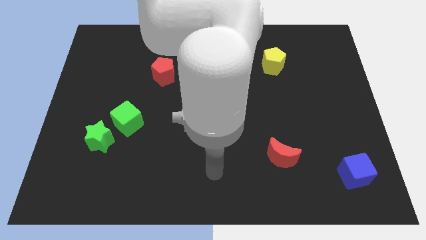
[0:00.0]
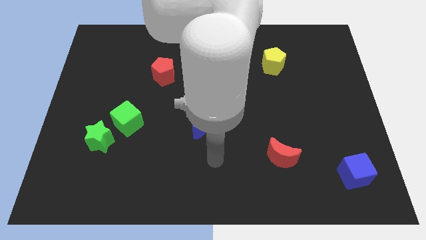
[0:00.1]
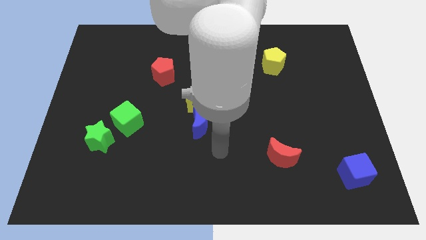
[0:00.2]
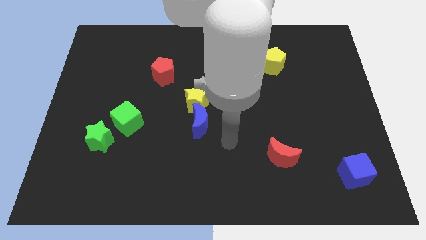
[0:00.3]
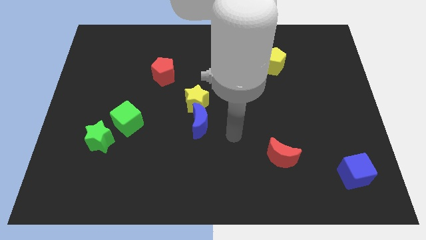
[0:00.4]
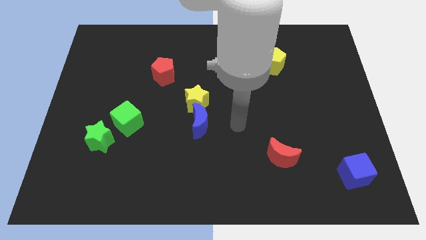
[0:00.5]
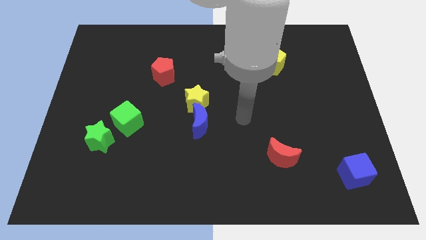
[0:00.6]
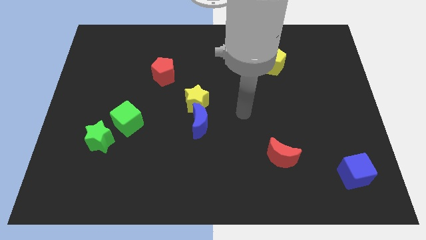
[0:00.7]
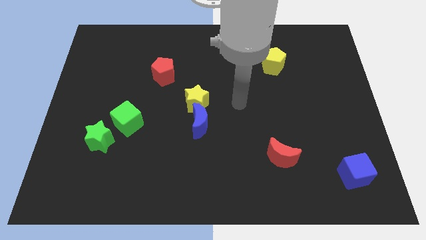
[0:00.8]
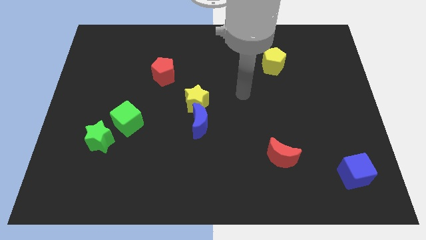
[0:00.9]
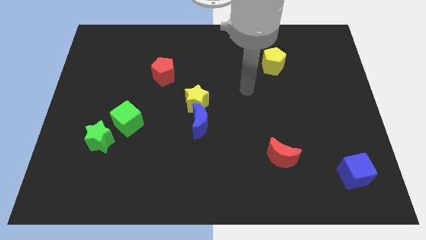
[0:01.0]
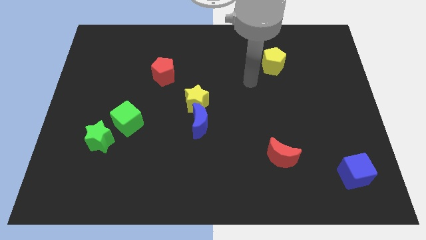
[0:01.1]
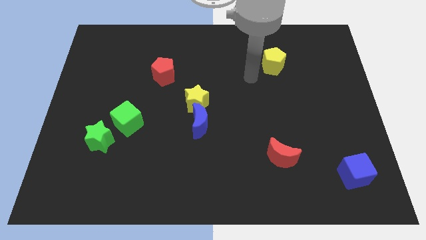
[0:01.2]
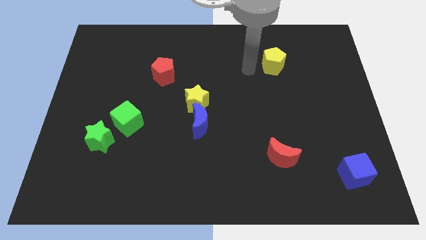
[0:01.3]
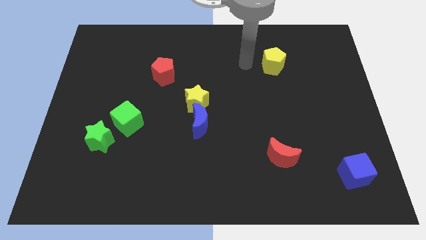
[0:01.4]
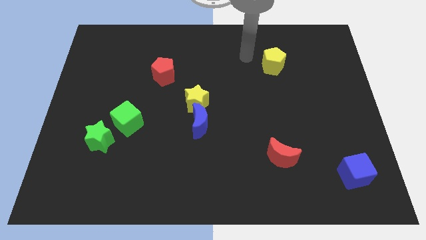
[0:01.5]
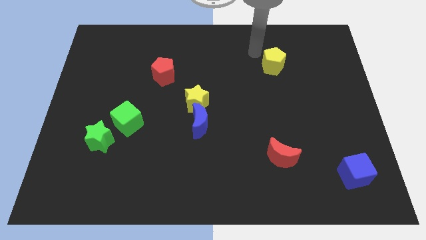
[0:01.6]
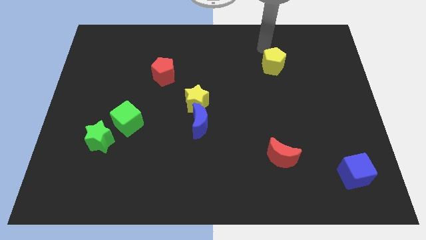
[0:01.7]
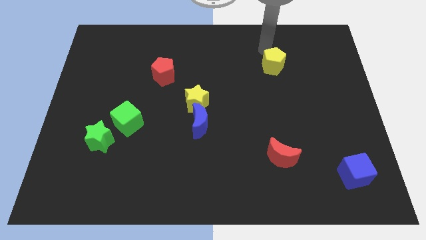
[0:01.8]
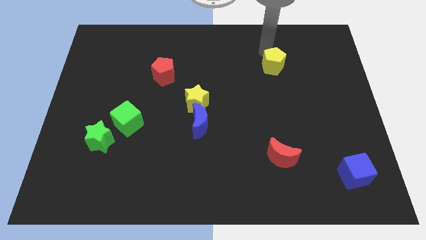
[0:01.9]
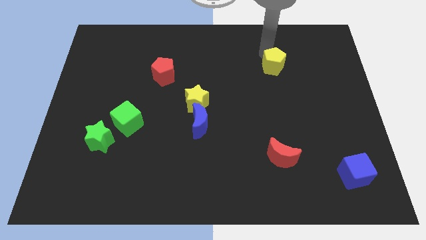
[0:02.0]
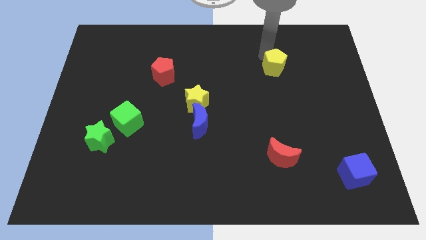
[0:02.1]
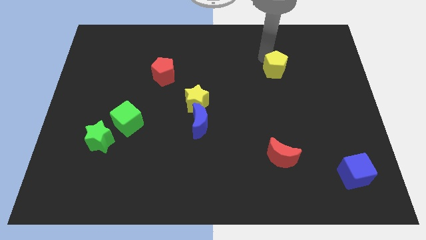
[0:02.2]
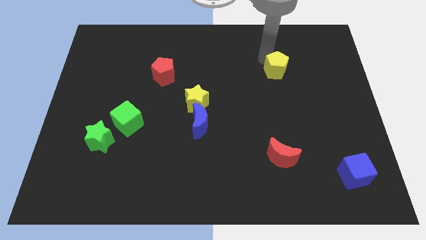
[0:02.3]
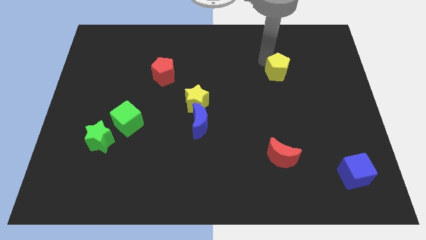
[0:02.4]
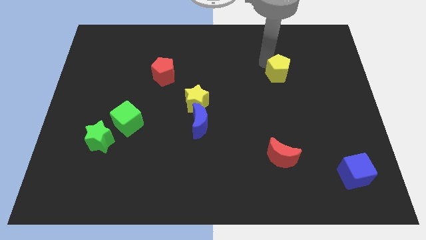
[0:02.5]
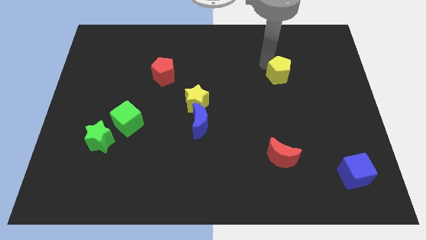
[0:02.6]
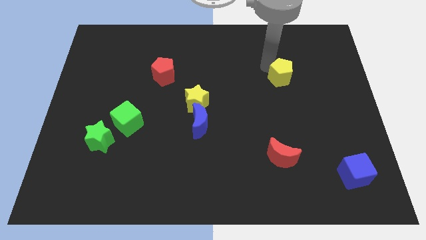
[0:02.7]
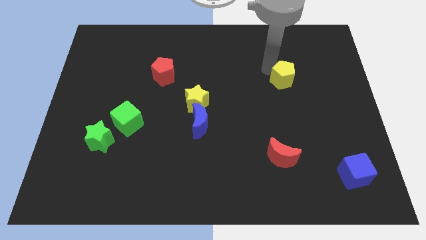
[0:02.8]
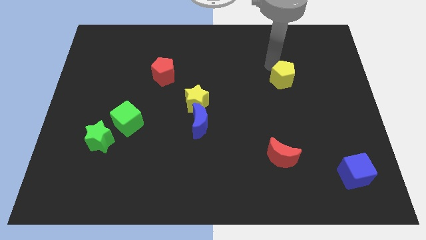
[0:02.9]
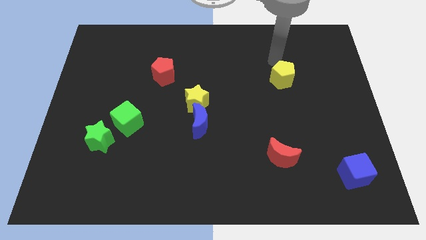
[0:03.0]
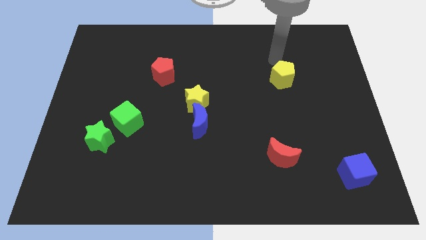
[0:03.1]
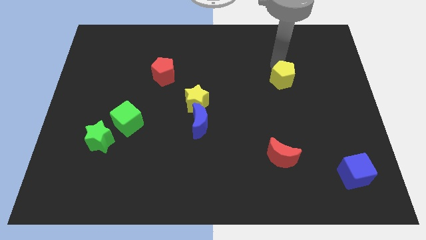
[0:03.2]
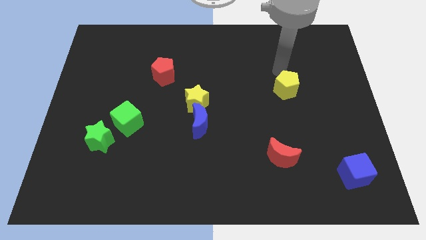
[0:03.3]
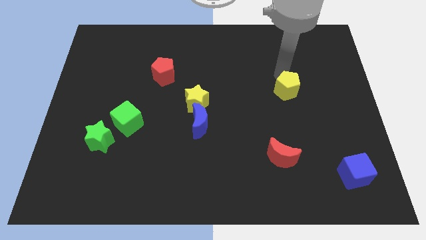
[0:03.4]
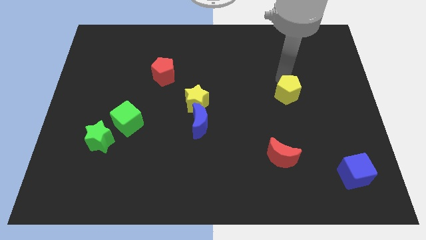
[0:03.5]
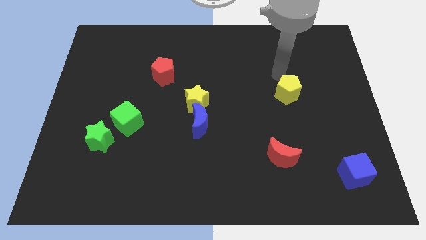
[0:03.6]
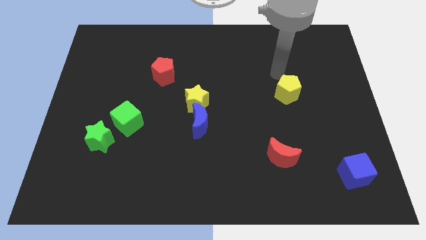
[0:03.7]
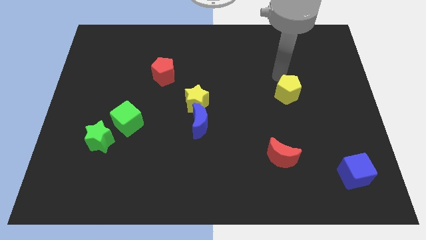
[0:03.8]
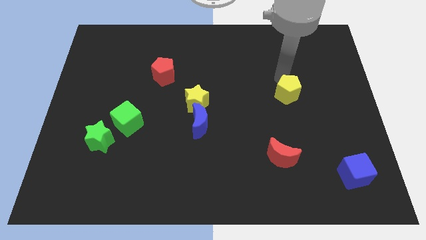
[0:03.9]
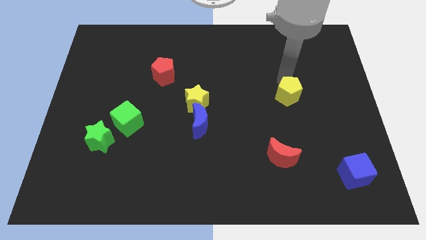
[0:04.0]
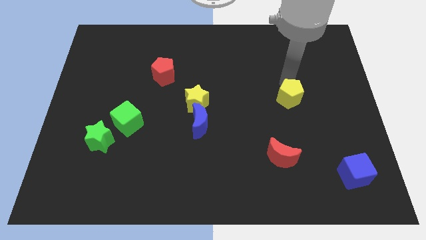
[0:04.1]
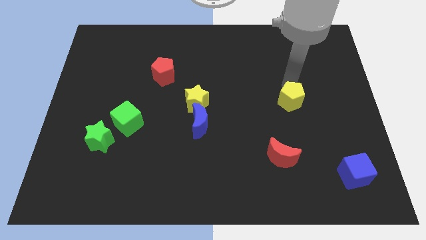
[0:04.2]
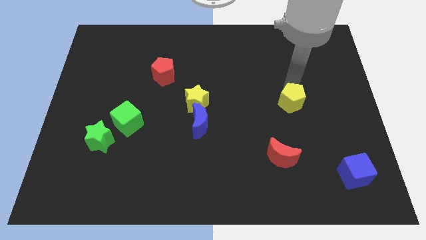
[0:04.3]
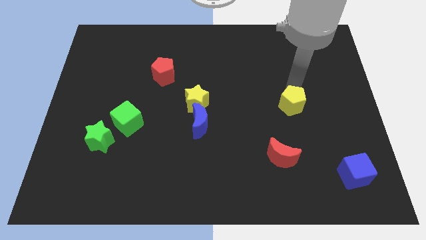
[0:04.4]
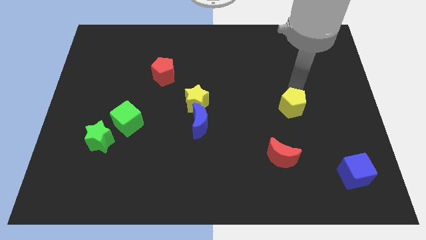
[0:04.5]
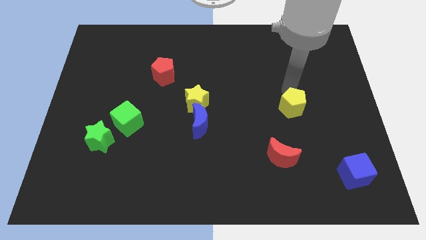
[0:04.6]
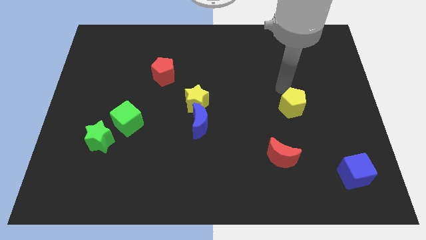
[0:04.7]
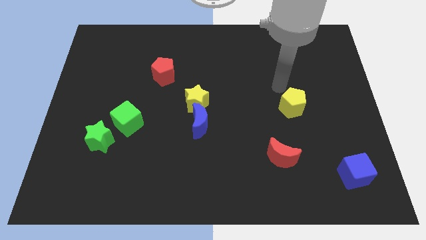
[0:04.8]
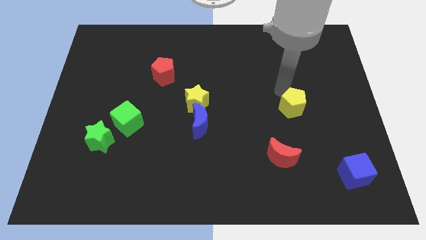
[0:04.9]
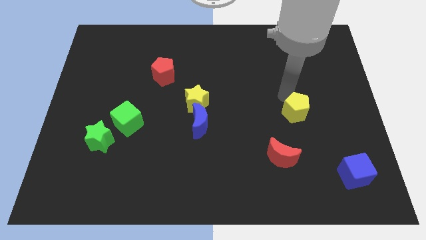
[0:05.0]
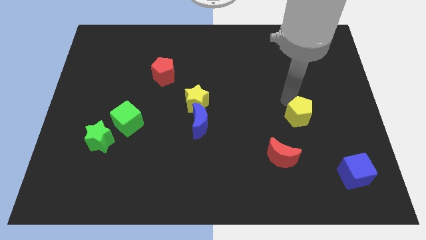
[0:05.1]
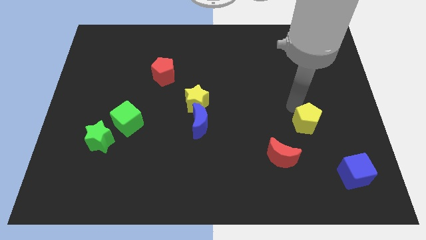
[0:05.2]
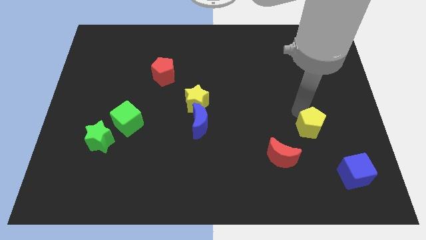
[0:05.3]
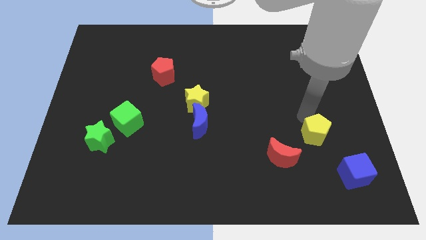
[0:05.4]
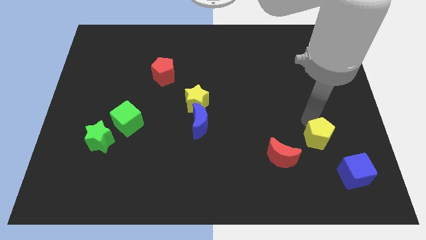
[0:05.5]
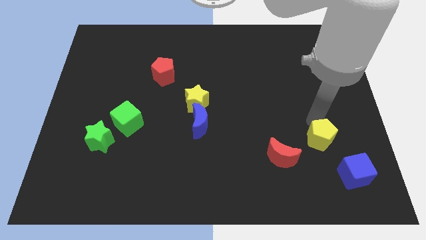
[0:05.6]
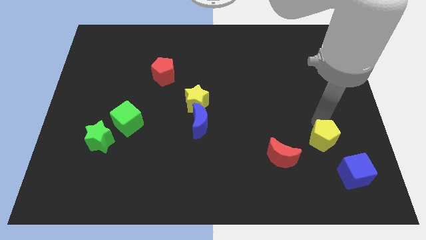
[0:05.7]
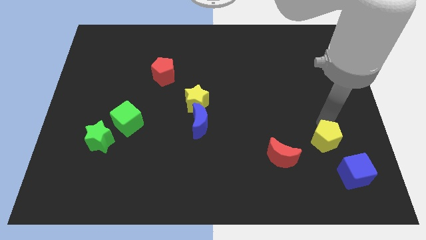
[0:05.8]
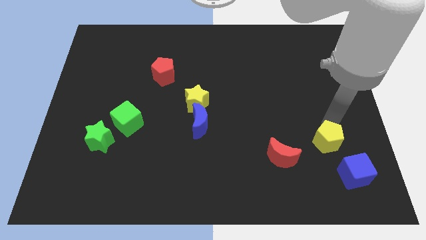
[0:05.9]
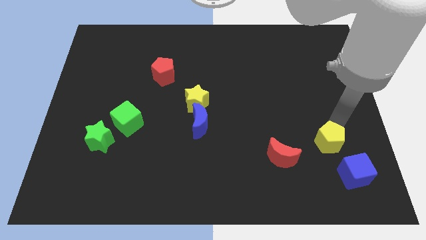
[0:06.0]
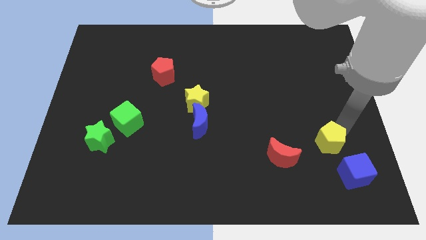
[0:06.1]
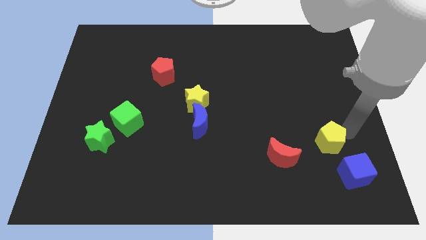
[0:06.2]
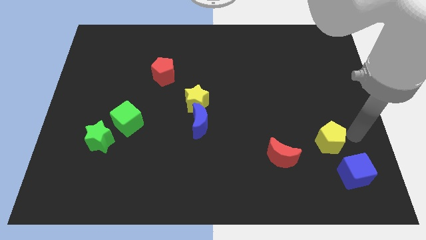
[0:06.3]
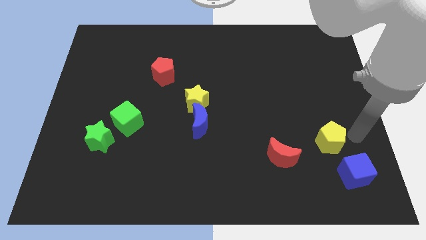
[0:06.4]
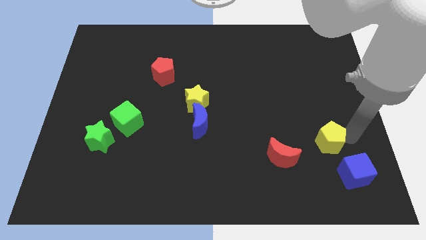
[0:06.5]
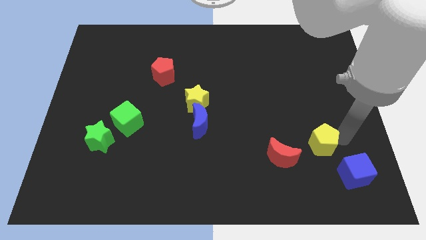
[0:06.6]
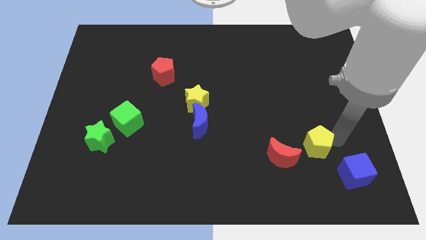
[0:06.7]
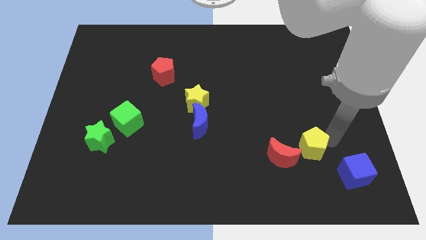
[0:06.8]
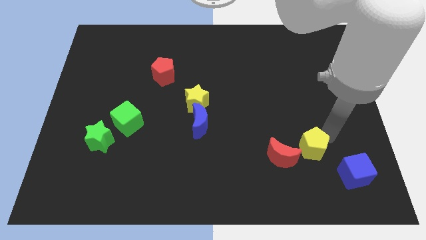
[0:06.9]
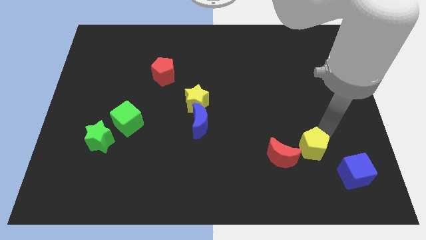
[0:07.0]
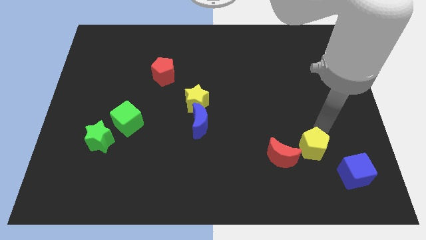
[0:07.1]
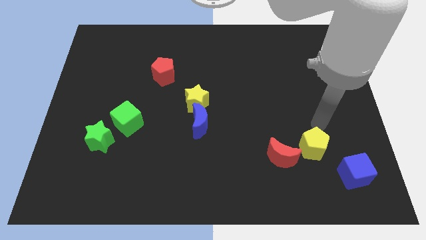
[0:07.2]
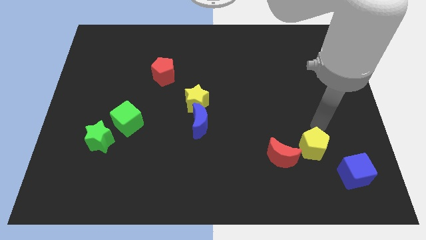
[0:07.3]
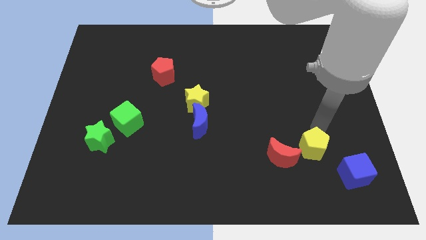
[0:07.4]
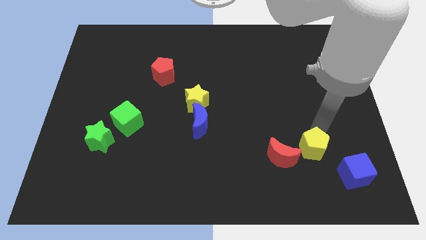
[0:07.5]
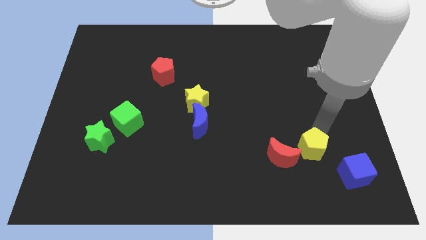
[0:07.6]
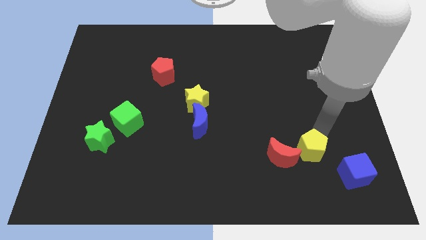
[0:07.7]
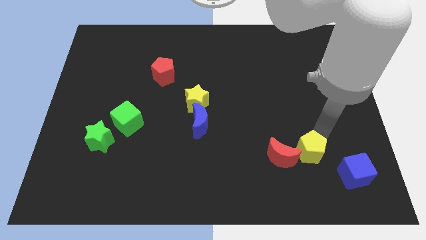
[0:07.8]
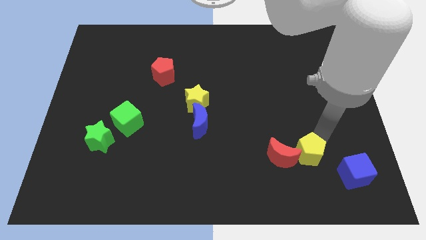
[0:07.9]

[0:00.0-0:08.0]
move the yellow pentagon to the bottom right side of the red moon

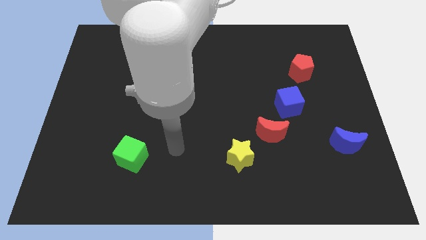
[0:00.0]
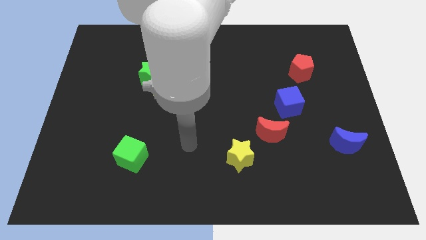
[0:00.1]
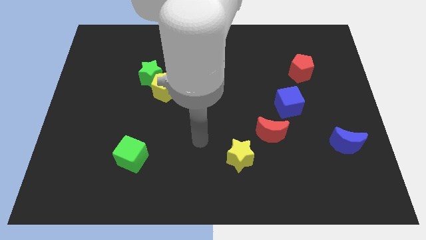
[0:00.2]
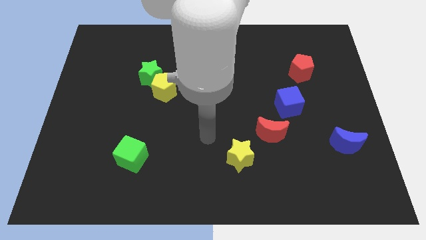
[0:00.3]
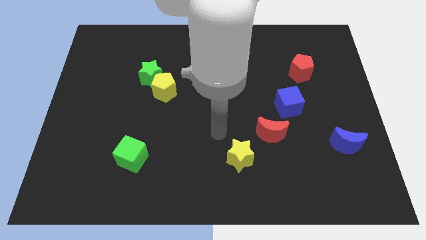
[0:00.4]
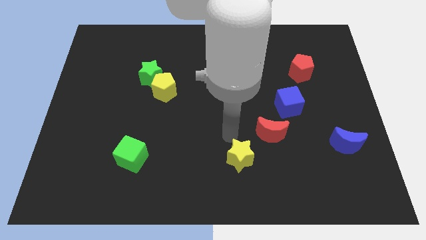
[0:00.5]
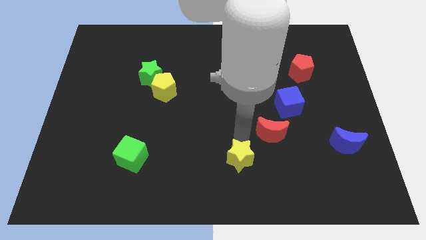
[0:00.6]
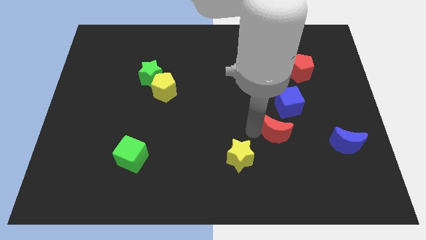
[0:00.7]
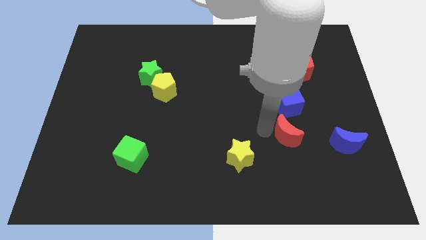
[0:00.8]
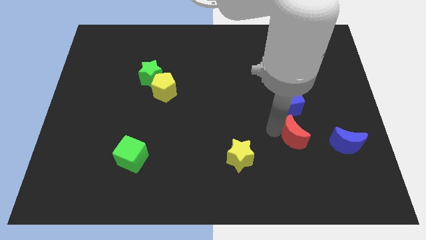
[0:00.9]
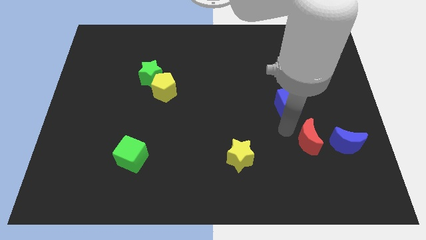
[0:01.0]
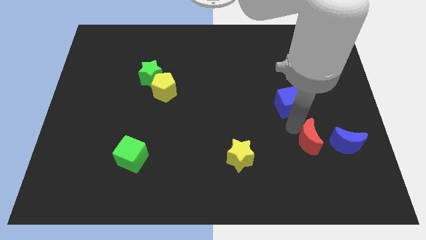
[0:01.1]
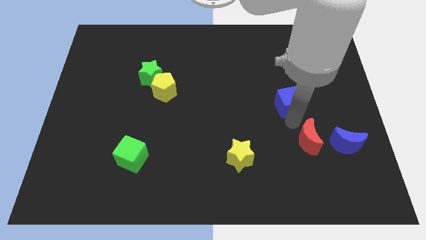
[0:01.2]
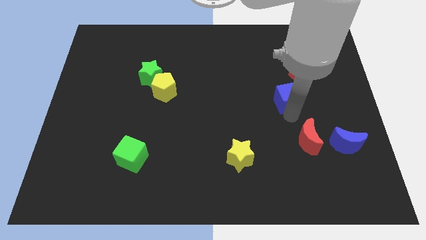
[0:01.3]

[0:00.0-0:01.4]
slide the blue cube diagonally down and to the left of the red pentagon
